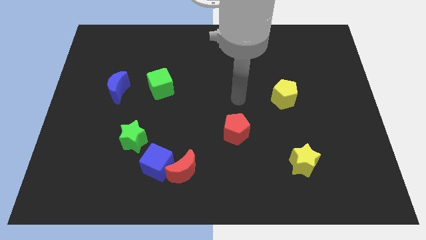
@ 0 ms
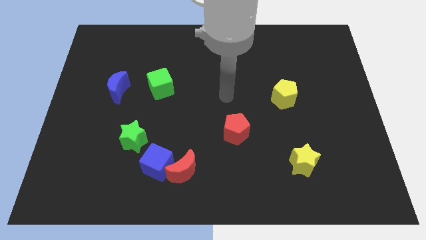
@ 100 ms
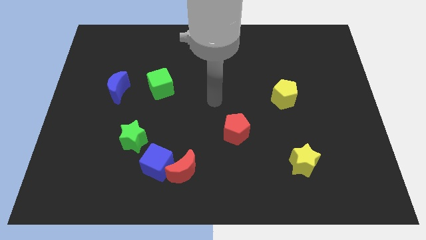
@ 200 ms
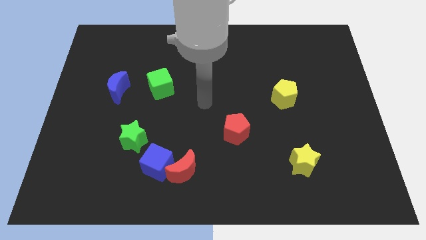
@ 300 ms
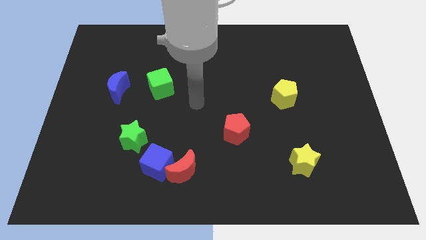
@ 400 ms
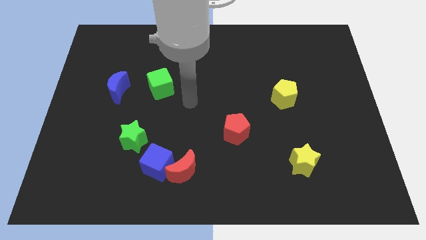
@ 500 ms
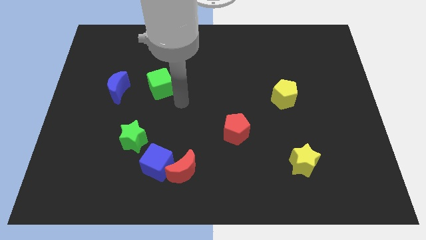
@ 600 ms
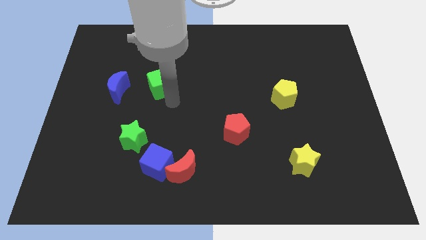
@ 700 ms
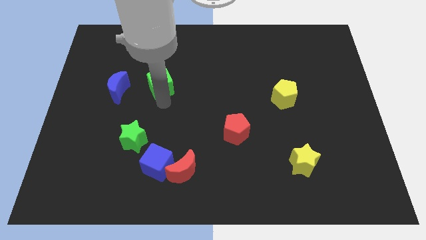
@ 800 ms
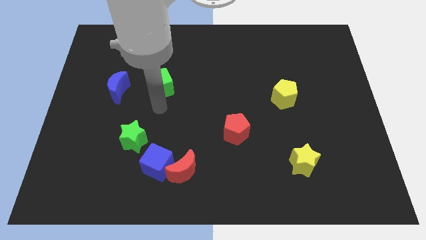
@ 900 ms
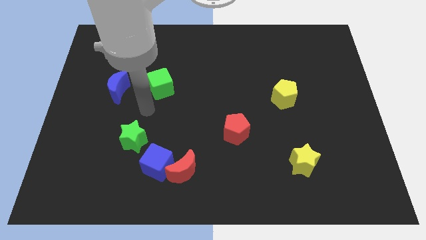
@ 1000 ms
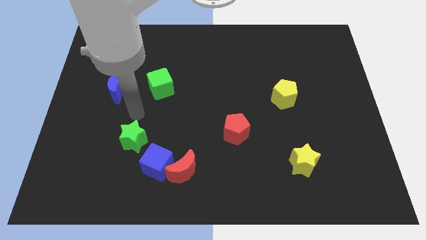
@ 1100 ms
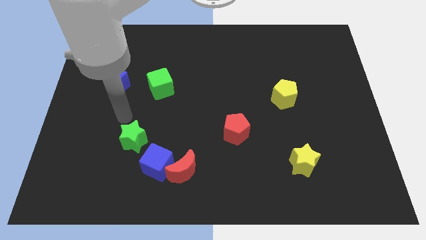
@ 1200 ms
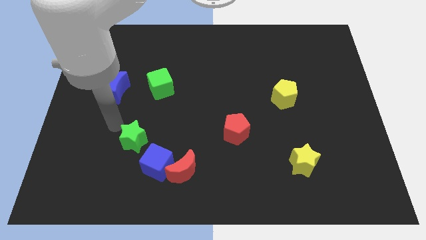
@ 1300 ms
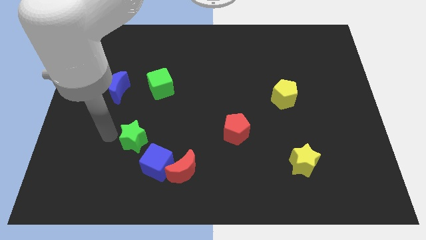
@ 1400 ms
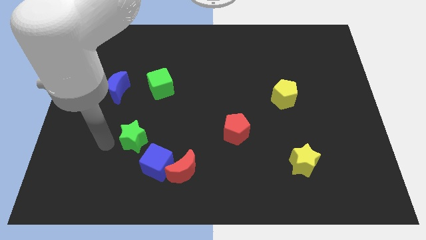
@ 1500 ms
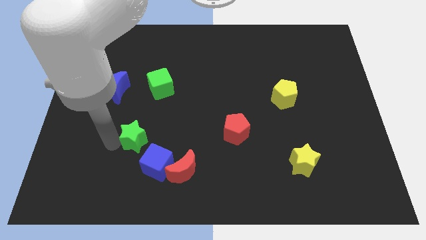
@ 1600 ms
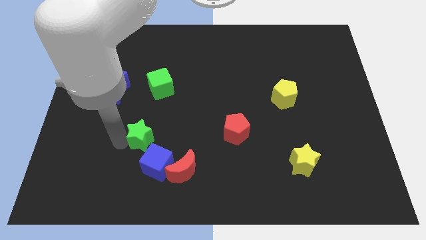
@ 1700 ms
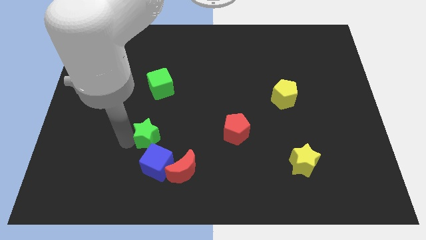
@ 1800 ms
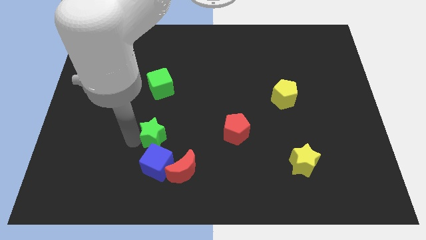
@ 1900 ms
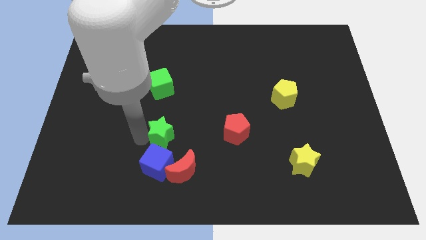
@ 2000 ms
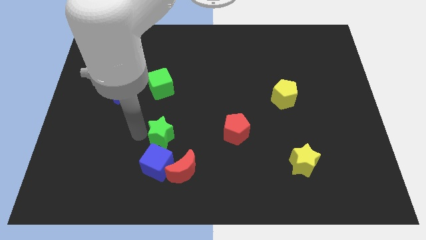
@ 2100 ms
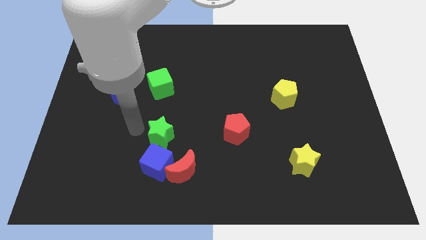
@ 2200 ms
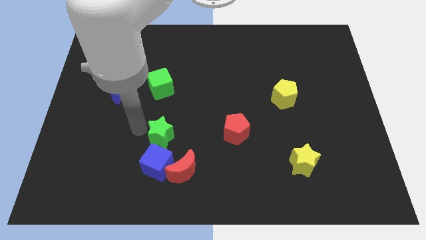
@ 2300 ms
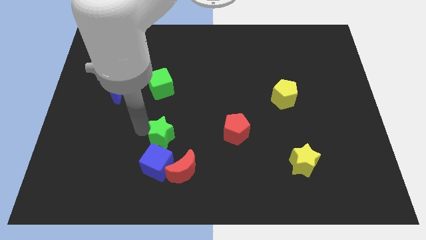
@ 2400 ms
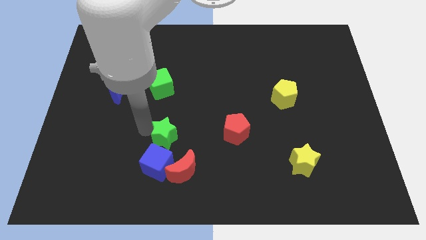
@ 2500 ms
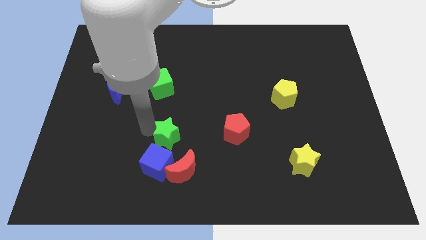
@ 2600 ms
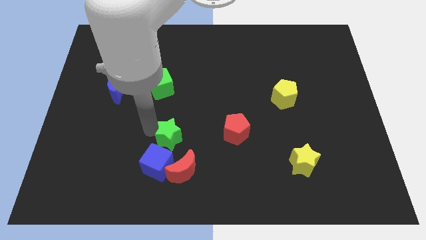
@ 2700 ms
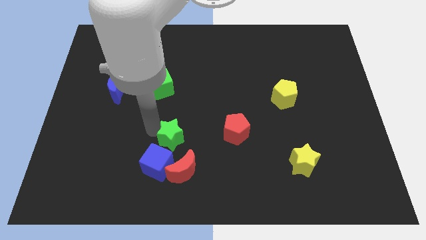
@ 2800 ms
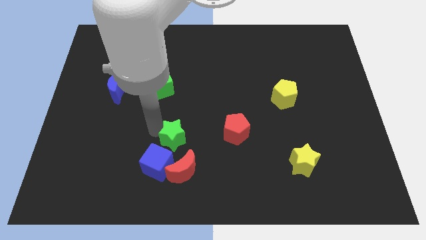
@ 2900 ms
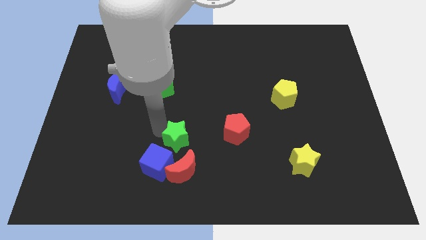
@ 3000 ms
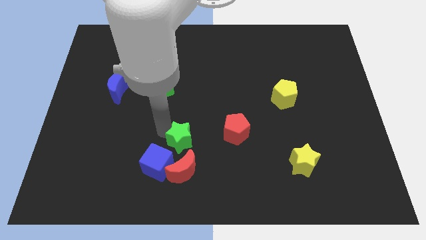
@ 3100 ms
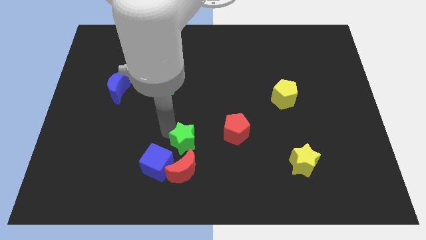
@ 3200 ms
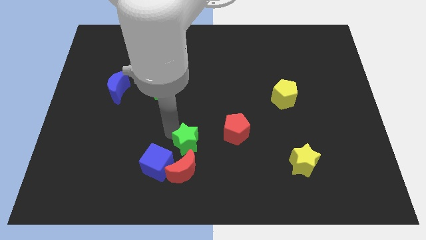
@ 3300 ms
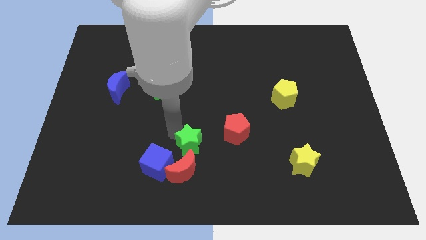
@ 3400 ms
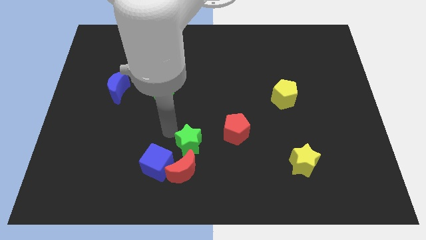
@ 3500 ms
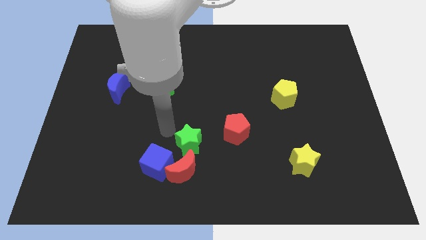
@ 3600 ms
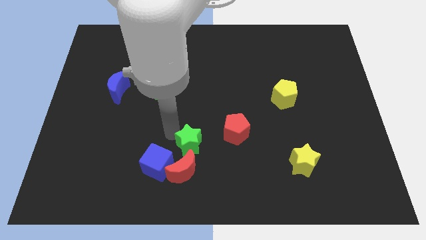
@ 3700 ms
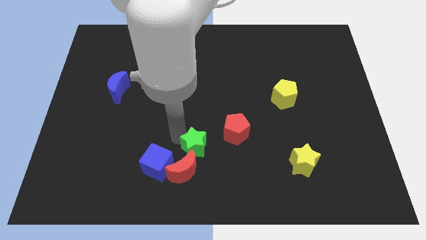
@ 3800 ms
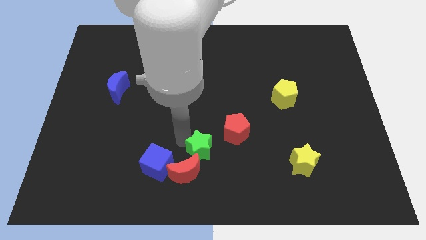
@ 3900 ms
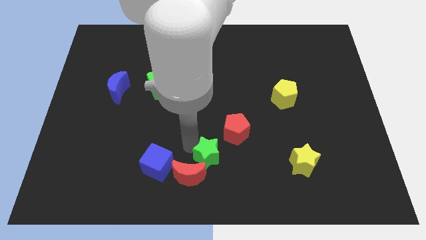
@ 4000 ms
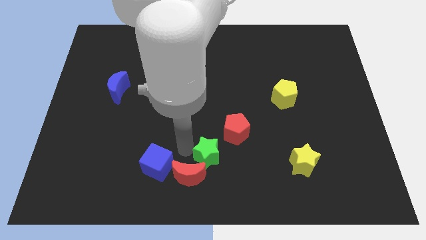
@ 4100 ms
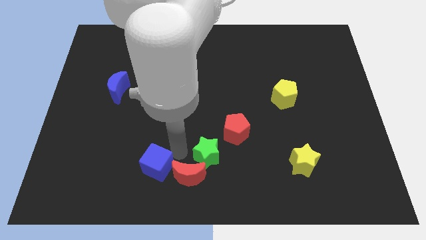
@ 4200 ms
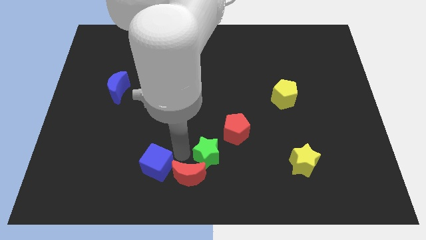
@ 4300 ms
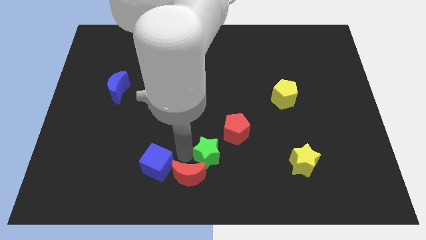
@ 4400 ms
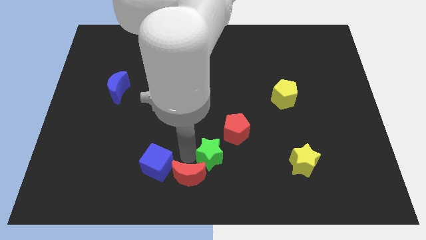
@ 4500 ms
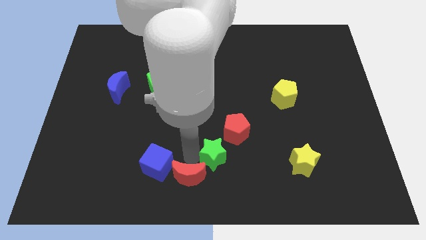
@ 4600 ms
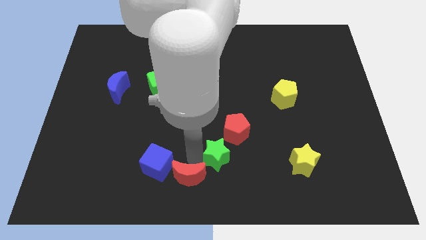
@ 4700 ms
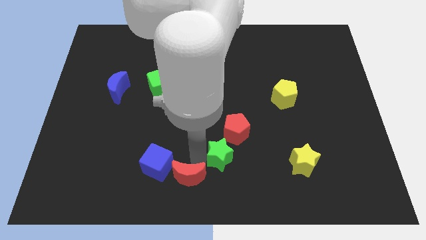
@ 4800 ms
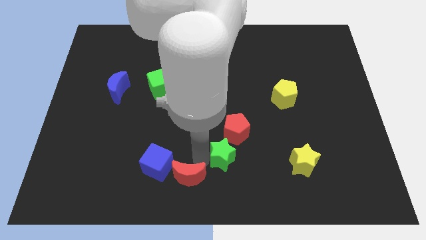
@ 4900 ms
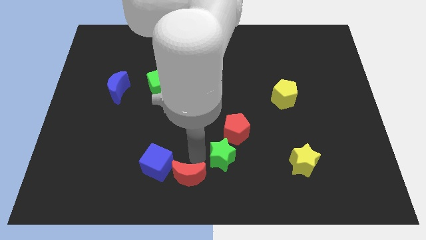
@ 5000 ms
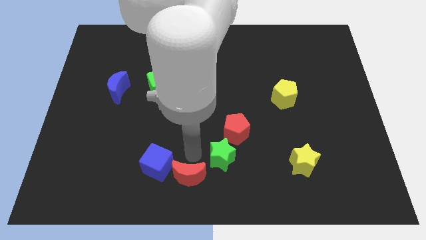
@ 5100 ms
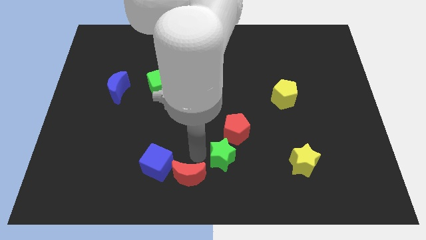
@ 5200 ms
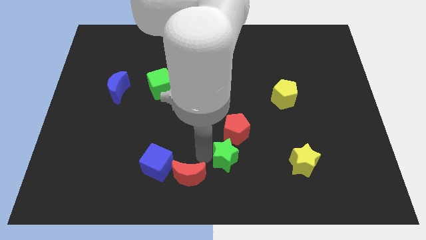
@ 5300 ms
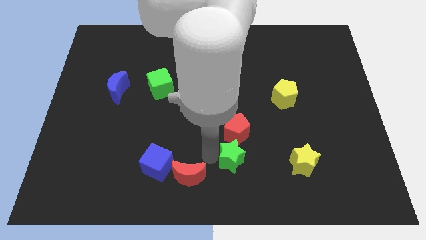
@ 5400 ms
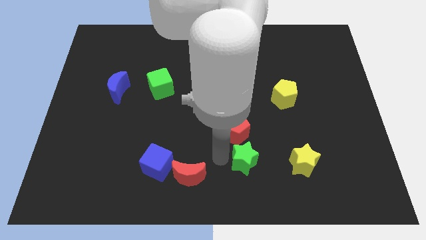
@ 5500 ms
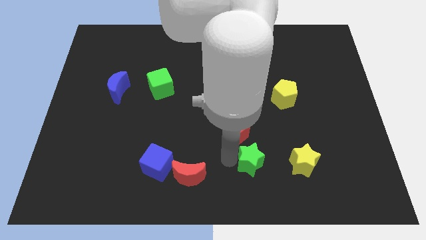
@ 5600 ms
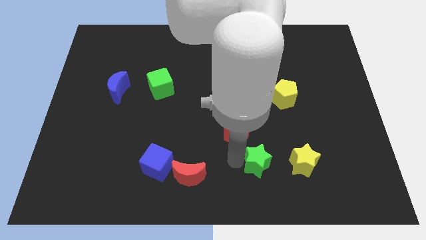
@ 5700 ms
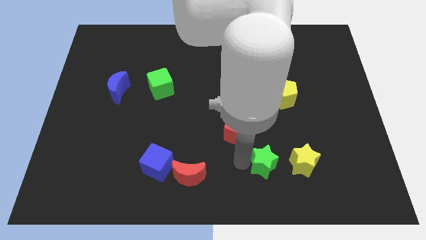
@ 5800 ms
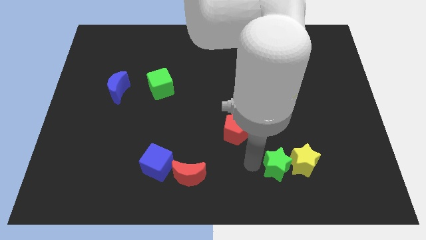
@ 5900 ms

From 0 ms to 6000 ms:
move the green star towards the yellow star

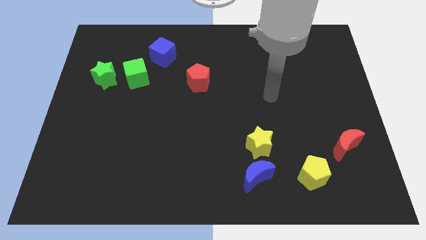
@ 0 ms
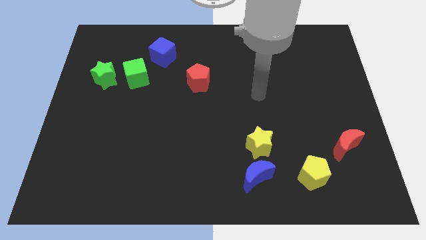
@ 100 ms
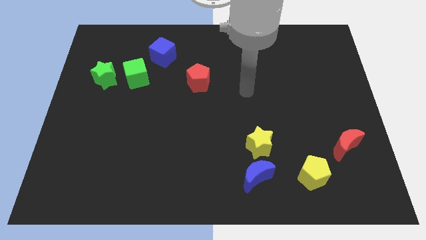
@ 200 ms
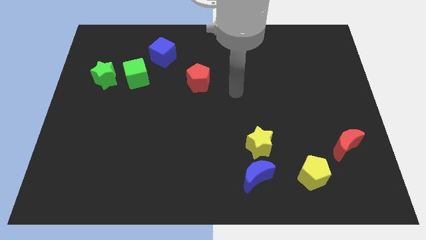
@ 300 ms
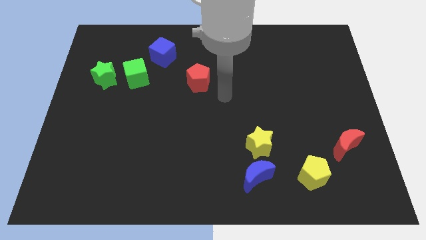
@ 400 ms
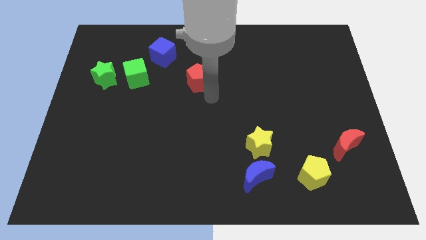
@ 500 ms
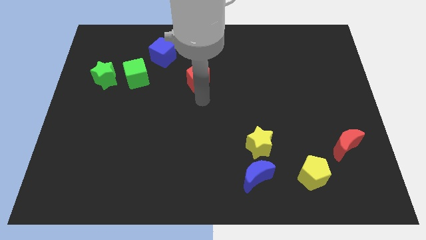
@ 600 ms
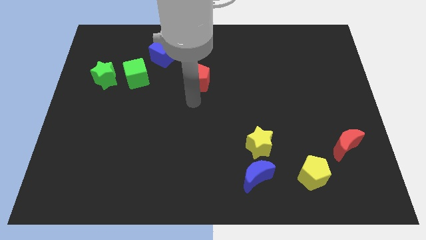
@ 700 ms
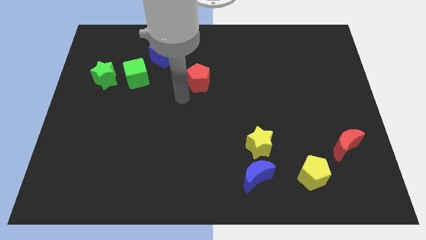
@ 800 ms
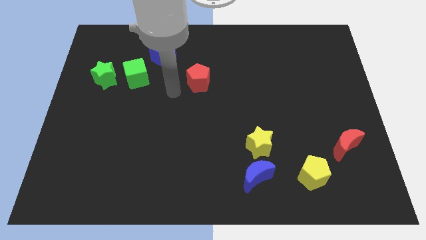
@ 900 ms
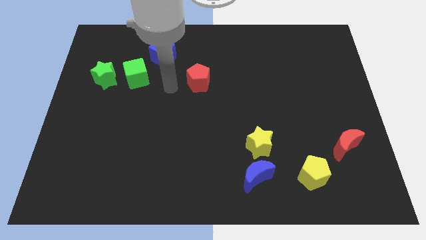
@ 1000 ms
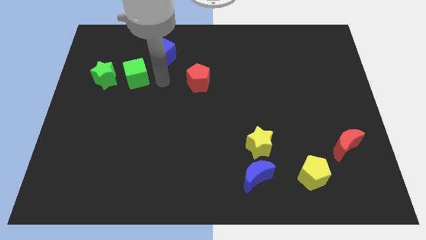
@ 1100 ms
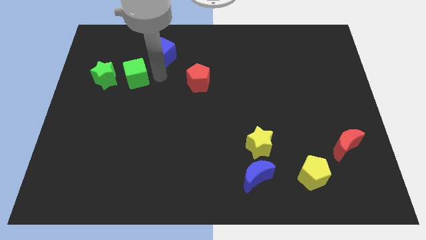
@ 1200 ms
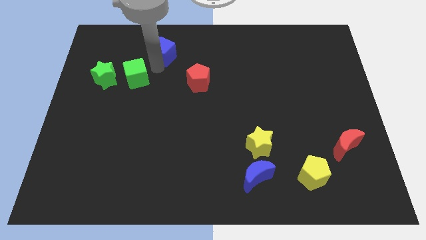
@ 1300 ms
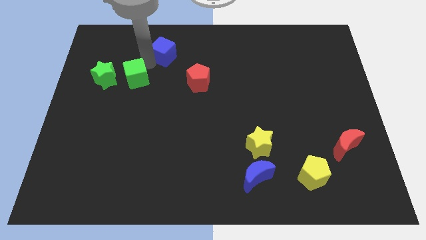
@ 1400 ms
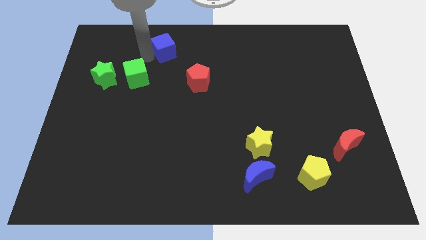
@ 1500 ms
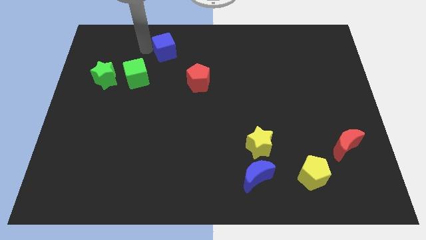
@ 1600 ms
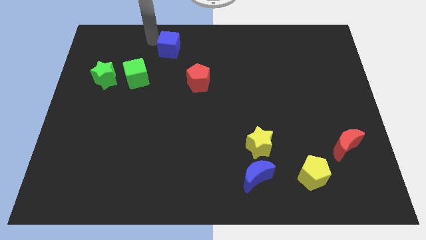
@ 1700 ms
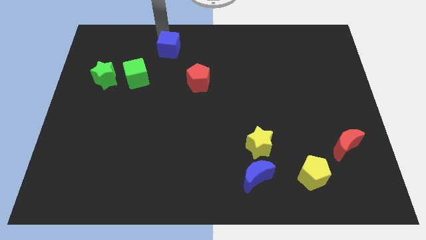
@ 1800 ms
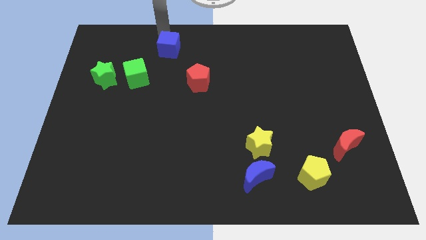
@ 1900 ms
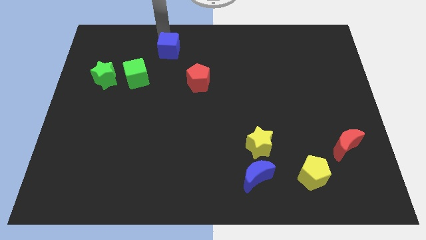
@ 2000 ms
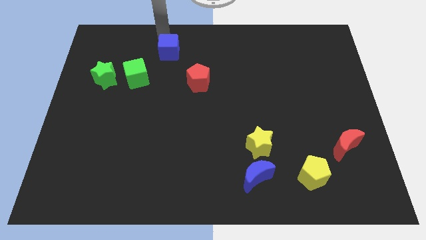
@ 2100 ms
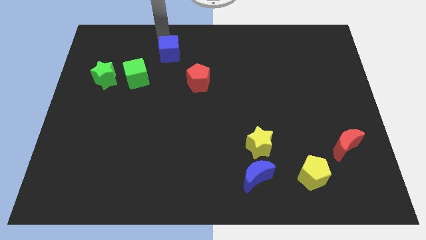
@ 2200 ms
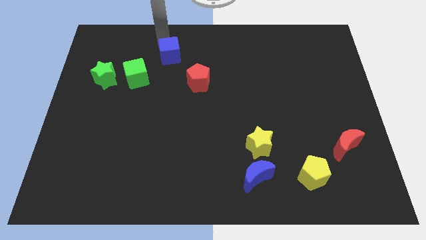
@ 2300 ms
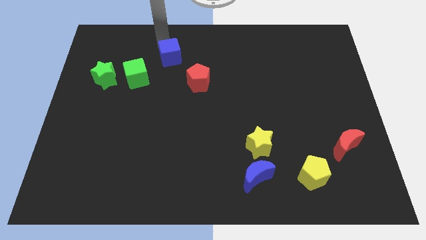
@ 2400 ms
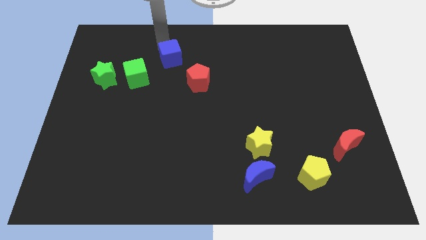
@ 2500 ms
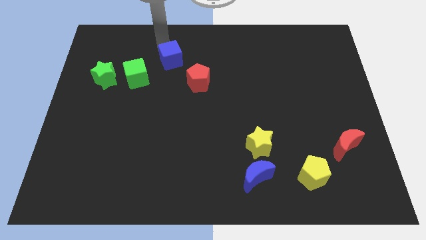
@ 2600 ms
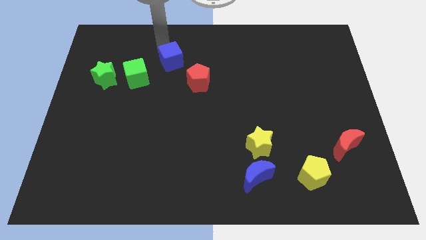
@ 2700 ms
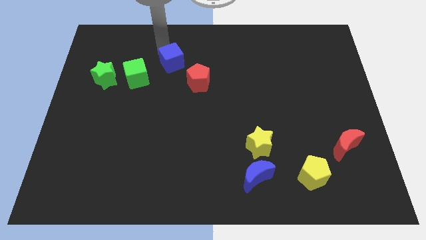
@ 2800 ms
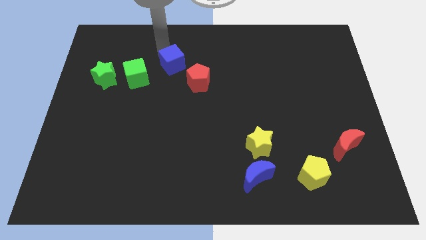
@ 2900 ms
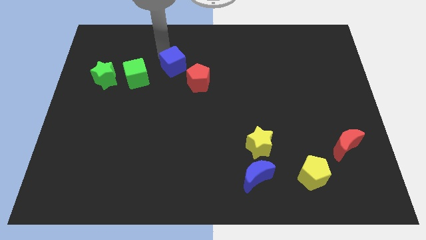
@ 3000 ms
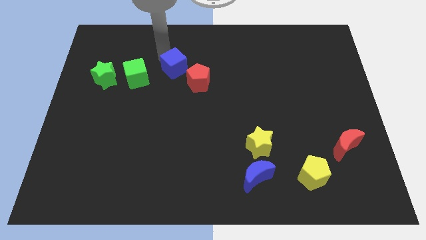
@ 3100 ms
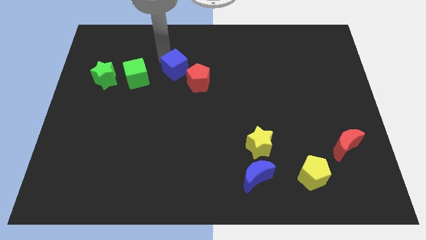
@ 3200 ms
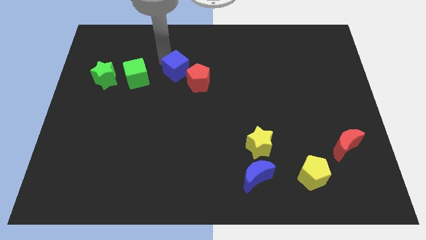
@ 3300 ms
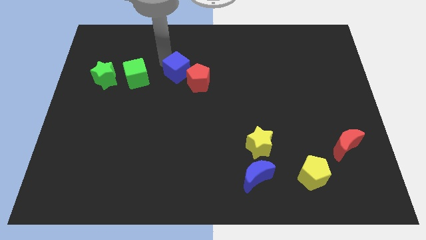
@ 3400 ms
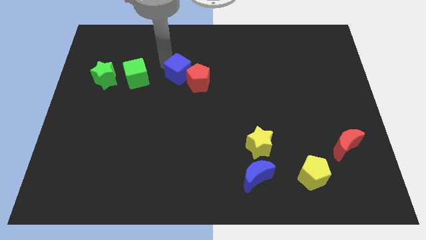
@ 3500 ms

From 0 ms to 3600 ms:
slide the blue cube next to the red pentagon
